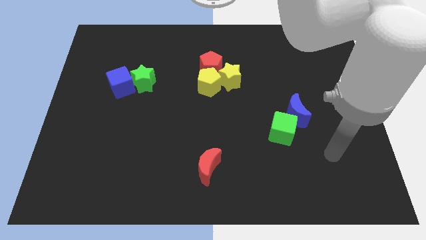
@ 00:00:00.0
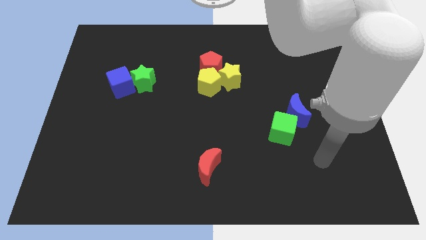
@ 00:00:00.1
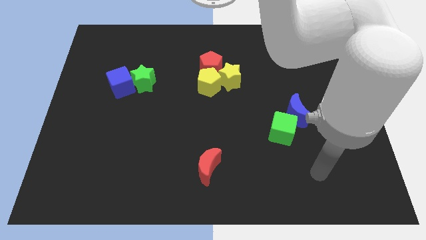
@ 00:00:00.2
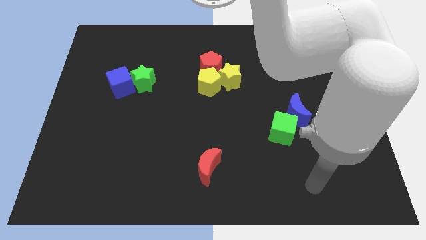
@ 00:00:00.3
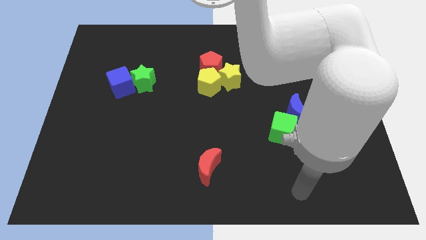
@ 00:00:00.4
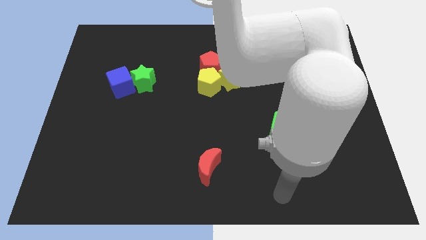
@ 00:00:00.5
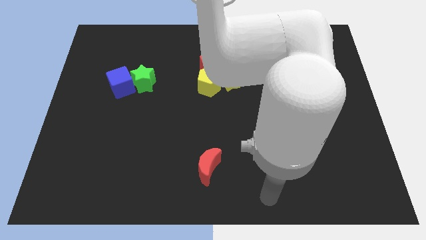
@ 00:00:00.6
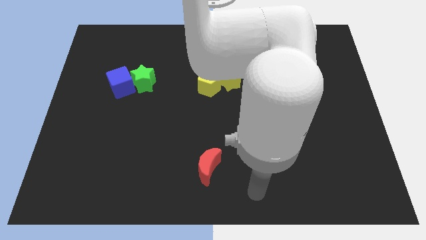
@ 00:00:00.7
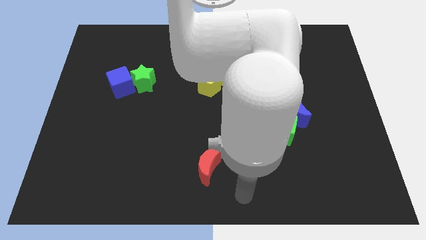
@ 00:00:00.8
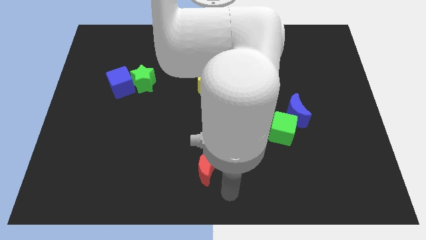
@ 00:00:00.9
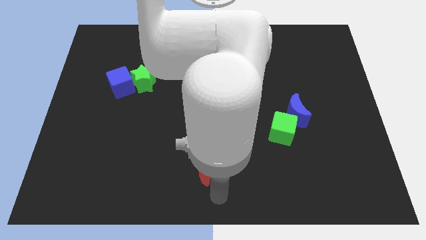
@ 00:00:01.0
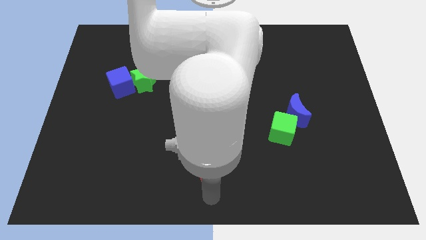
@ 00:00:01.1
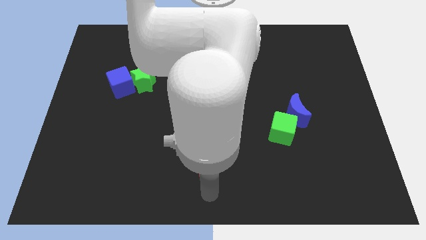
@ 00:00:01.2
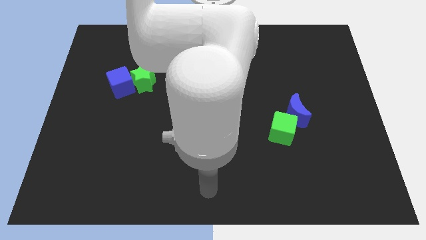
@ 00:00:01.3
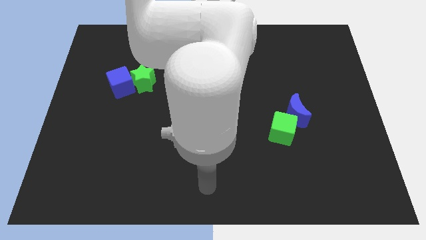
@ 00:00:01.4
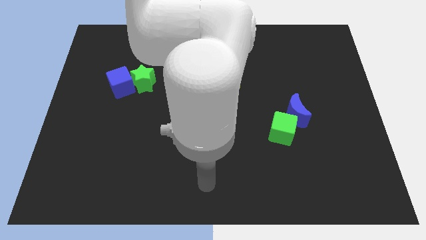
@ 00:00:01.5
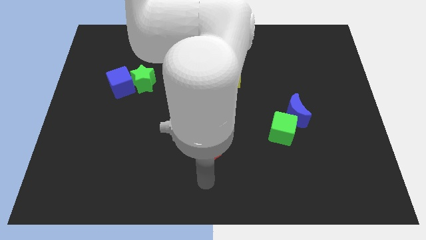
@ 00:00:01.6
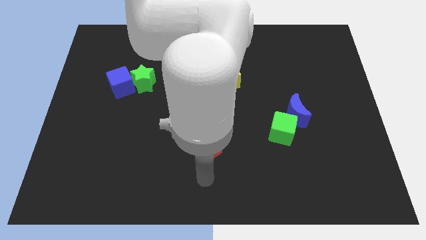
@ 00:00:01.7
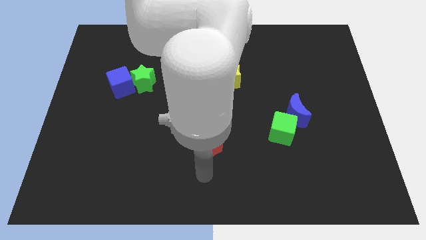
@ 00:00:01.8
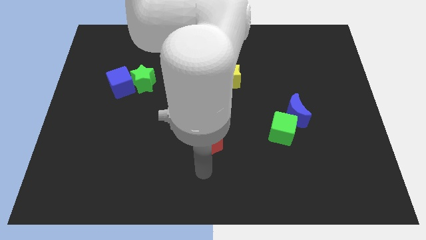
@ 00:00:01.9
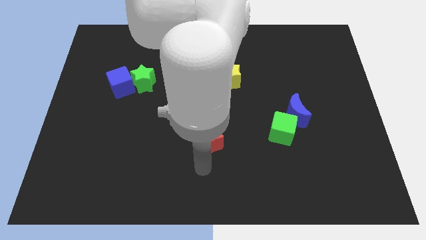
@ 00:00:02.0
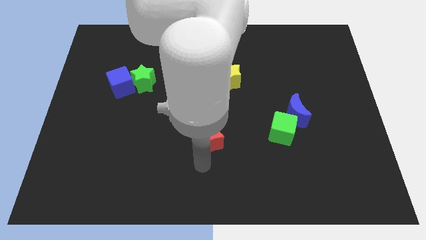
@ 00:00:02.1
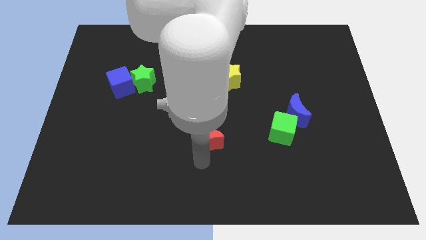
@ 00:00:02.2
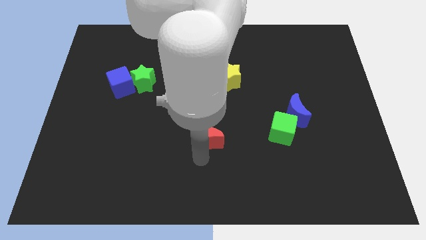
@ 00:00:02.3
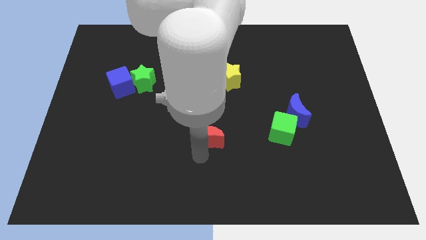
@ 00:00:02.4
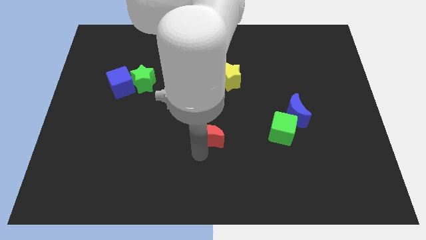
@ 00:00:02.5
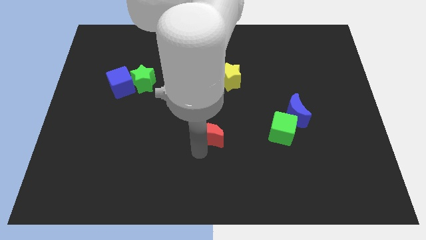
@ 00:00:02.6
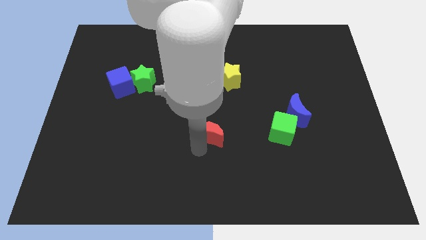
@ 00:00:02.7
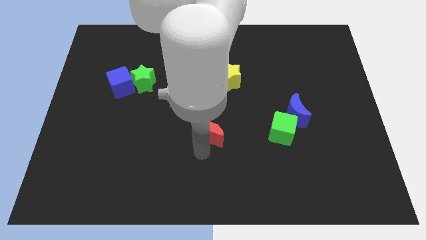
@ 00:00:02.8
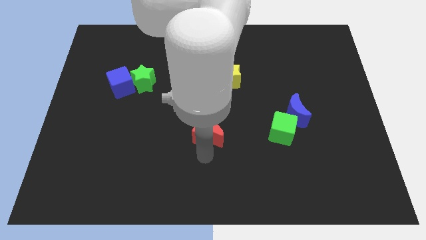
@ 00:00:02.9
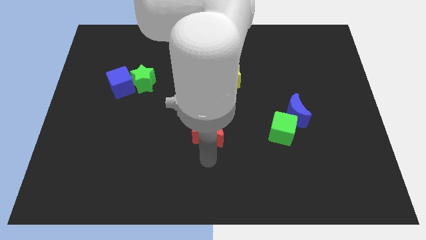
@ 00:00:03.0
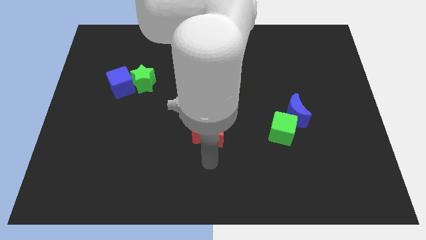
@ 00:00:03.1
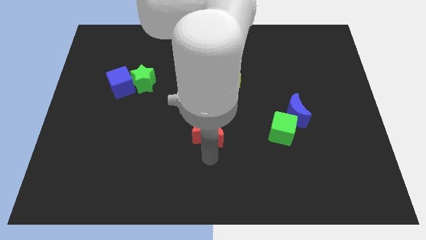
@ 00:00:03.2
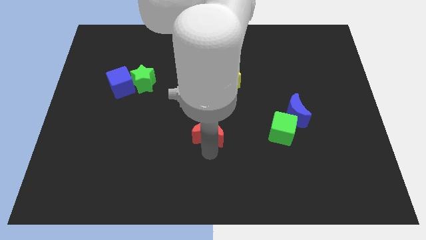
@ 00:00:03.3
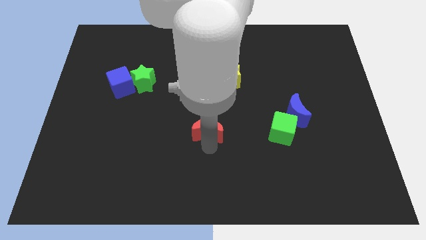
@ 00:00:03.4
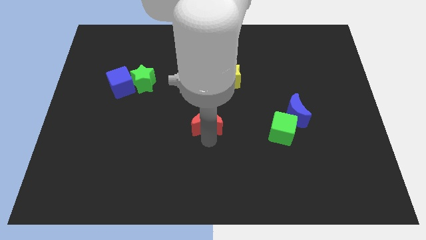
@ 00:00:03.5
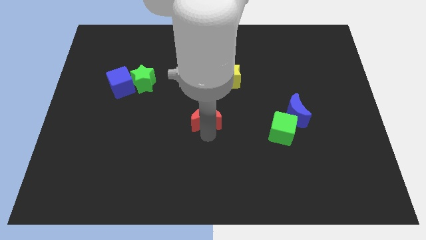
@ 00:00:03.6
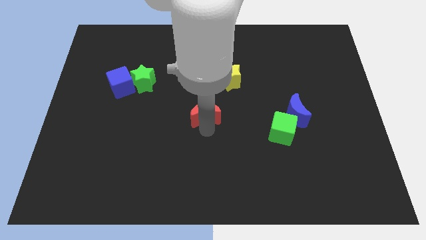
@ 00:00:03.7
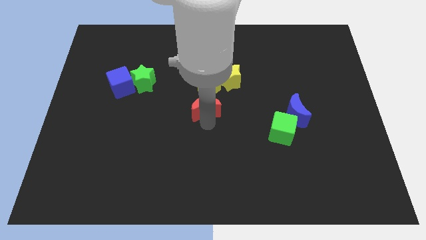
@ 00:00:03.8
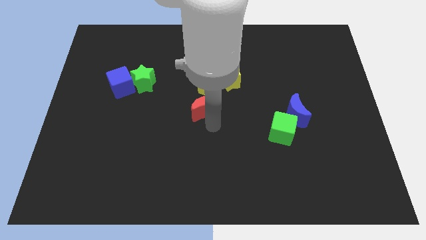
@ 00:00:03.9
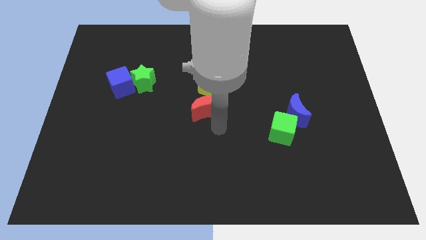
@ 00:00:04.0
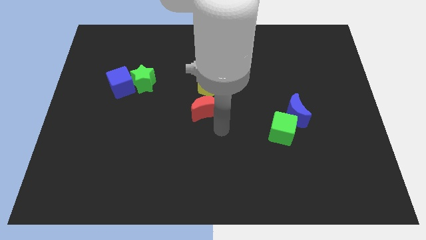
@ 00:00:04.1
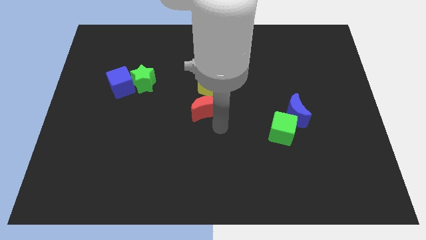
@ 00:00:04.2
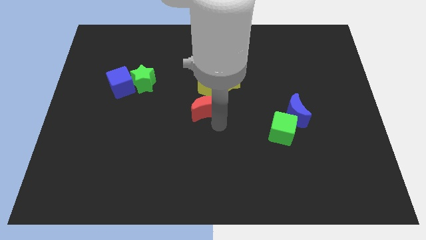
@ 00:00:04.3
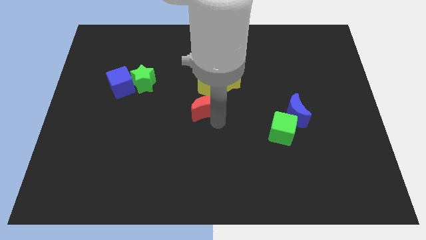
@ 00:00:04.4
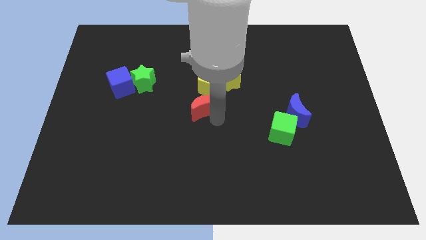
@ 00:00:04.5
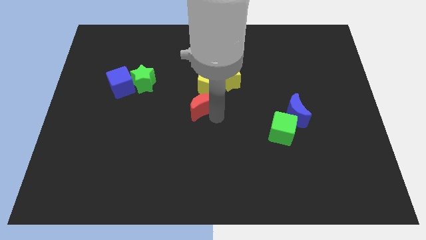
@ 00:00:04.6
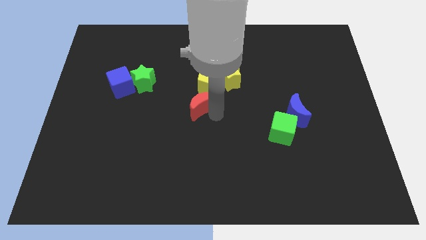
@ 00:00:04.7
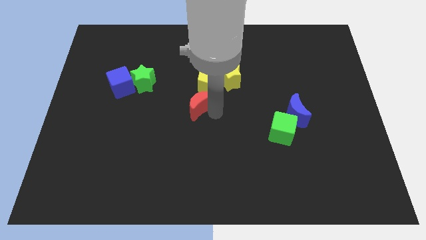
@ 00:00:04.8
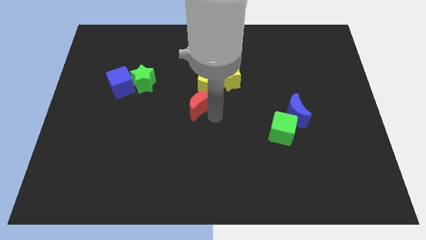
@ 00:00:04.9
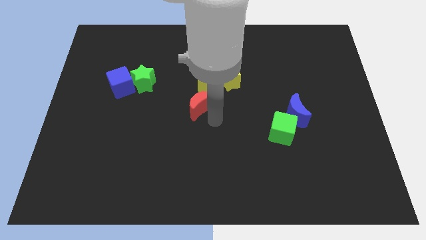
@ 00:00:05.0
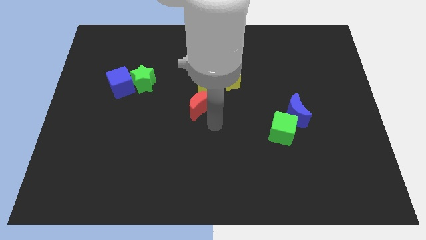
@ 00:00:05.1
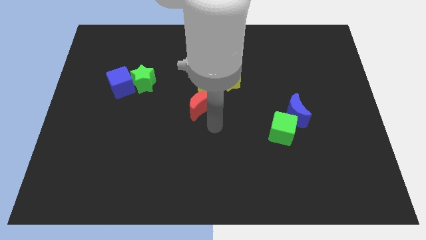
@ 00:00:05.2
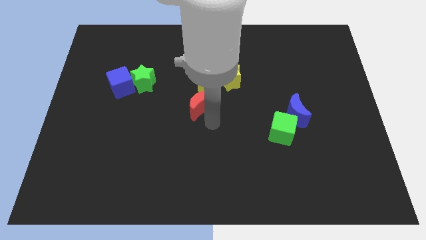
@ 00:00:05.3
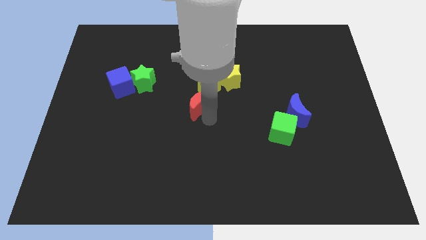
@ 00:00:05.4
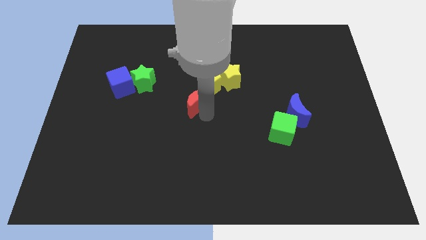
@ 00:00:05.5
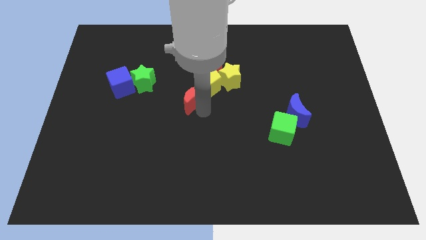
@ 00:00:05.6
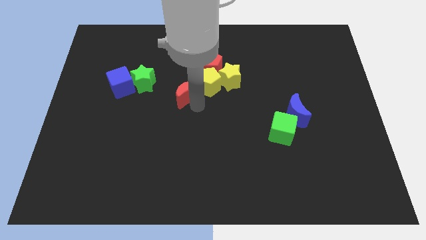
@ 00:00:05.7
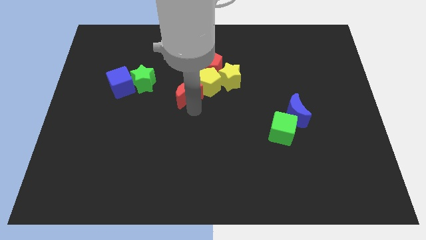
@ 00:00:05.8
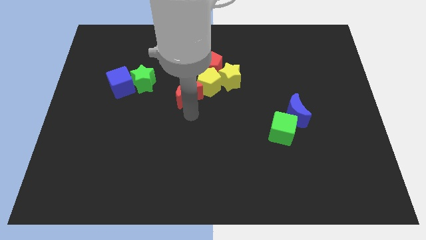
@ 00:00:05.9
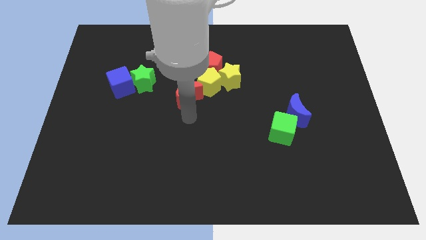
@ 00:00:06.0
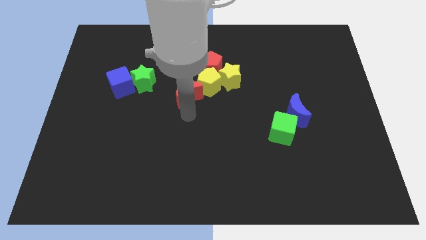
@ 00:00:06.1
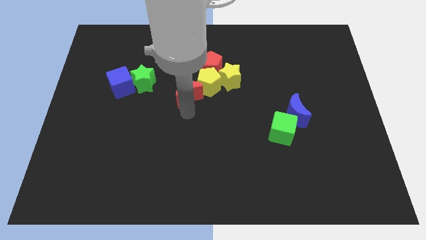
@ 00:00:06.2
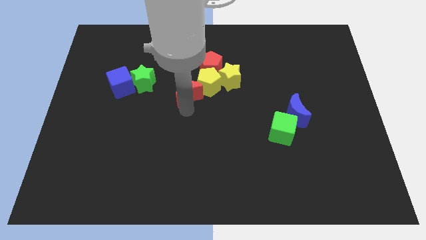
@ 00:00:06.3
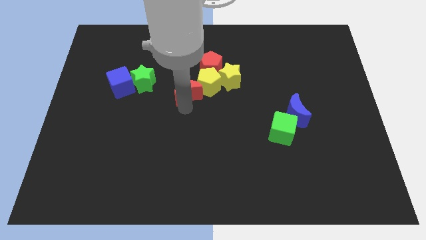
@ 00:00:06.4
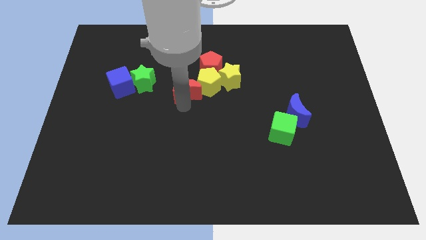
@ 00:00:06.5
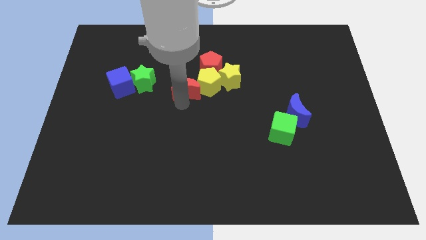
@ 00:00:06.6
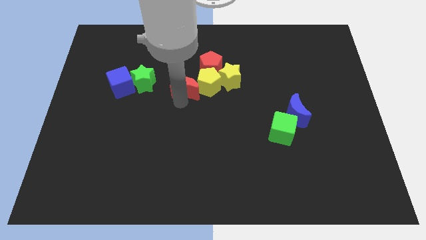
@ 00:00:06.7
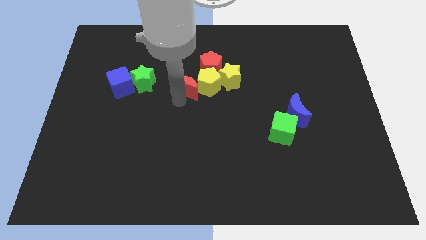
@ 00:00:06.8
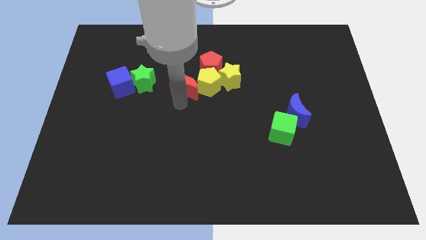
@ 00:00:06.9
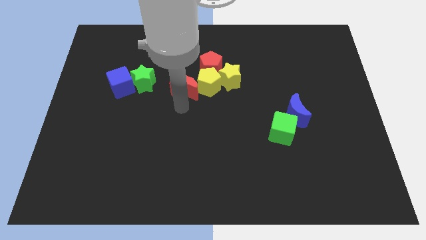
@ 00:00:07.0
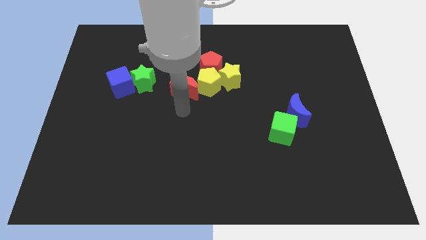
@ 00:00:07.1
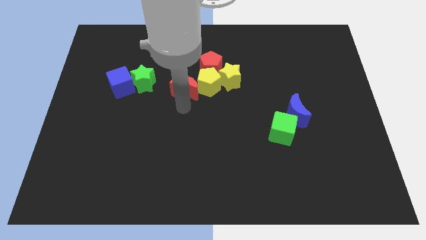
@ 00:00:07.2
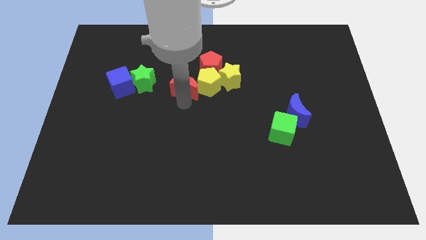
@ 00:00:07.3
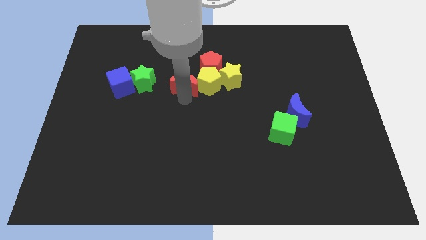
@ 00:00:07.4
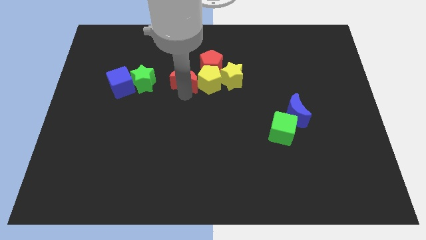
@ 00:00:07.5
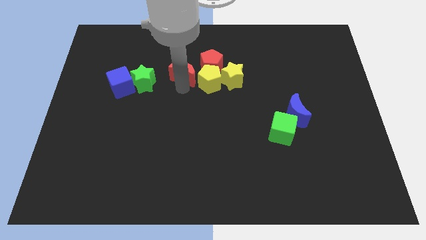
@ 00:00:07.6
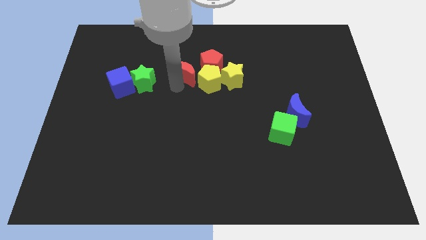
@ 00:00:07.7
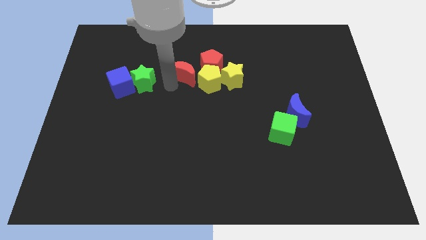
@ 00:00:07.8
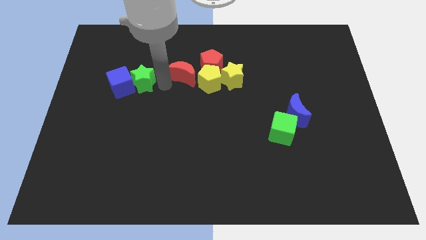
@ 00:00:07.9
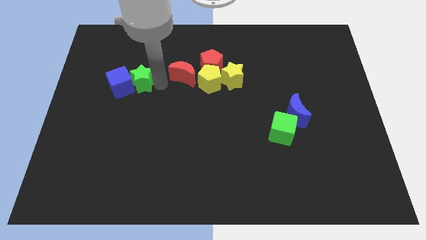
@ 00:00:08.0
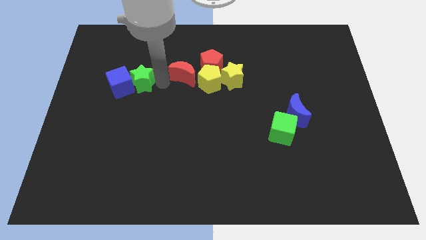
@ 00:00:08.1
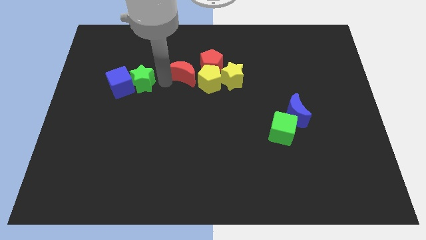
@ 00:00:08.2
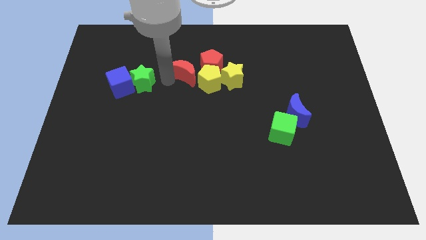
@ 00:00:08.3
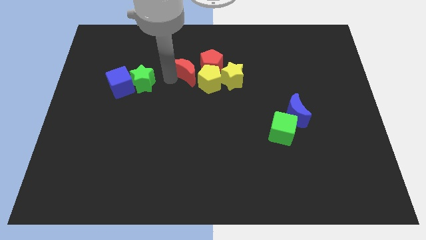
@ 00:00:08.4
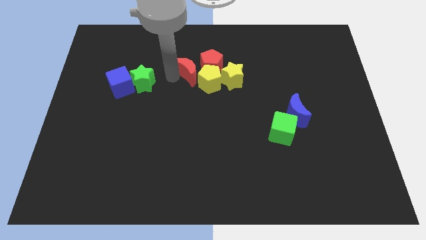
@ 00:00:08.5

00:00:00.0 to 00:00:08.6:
put the red moon towards the red pentagon
